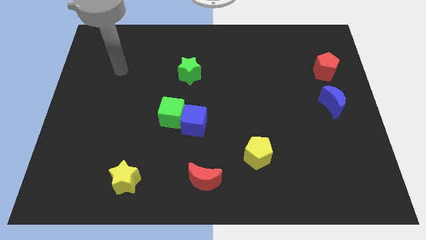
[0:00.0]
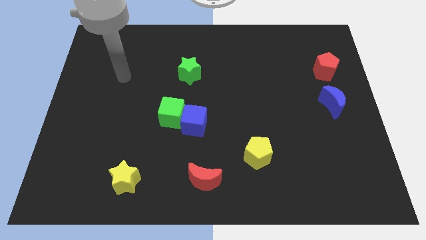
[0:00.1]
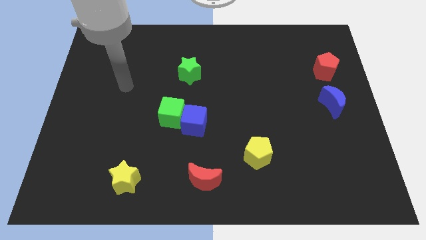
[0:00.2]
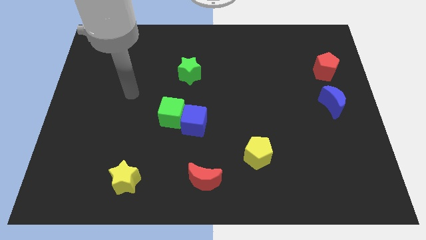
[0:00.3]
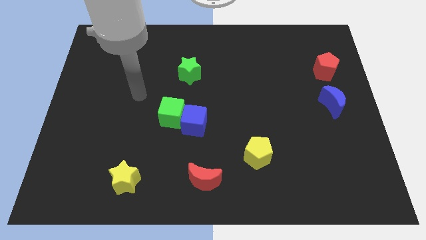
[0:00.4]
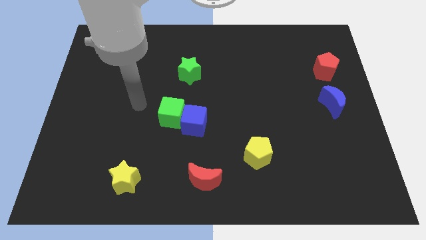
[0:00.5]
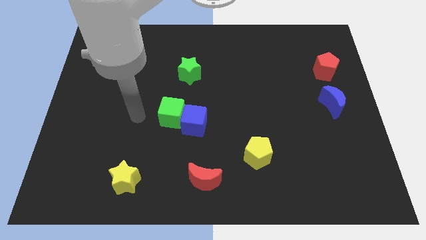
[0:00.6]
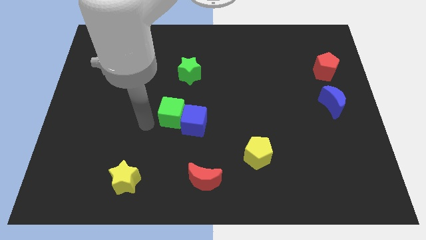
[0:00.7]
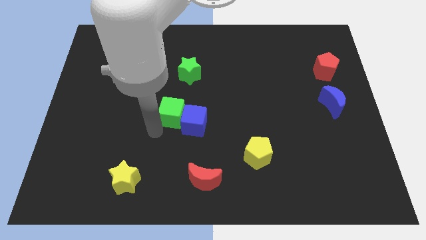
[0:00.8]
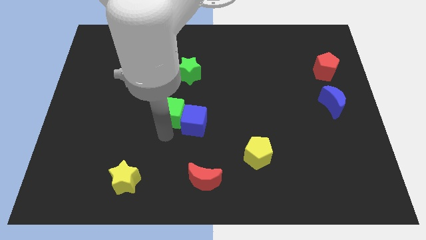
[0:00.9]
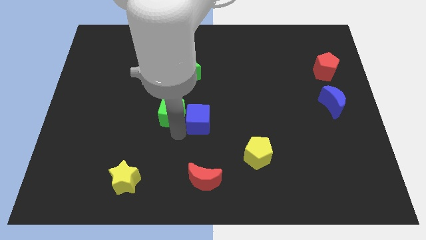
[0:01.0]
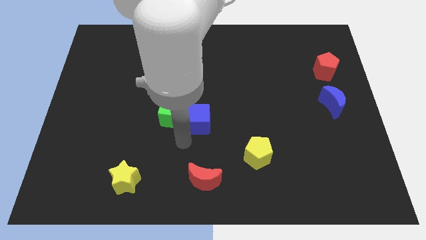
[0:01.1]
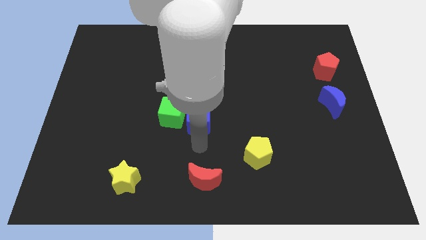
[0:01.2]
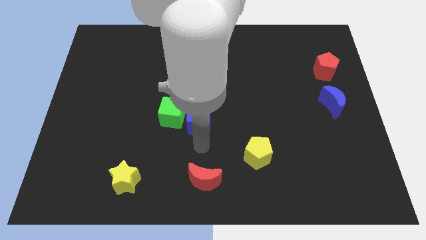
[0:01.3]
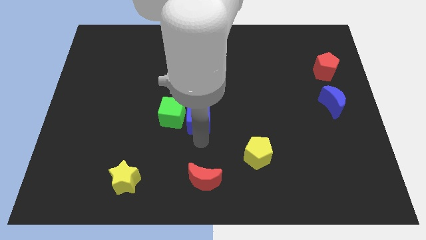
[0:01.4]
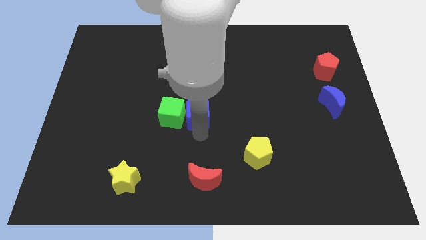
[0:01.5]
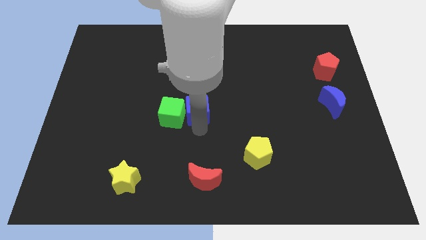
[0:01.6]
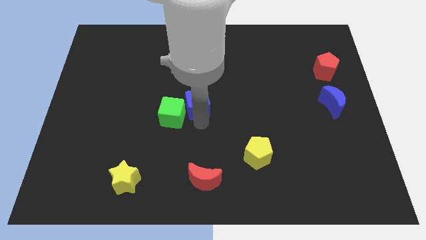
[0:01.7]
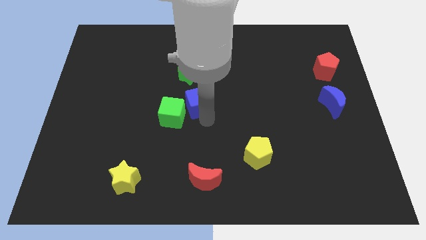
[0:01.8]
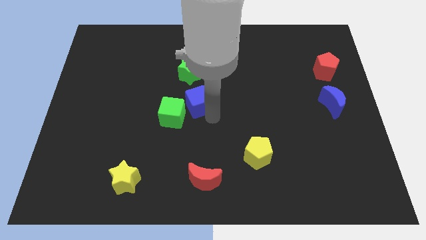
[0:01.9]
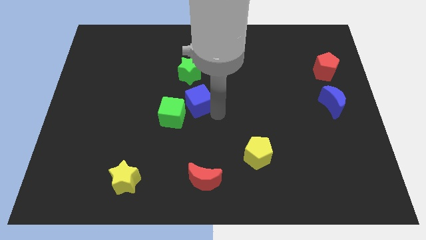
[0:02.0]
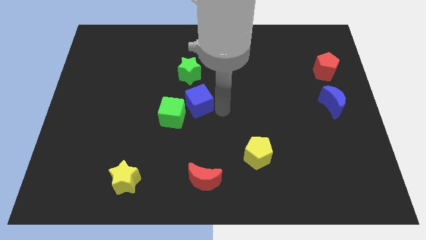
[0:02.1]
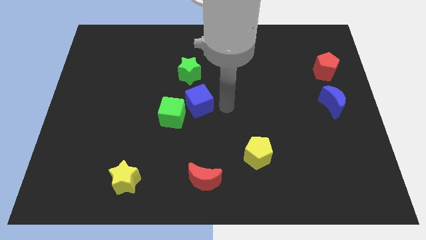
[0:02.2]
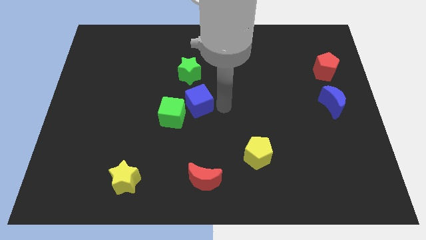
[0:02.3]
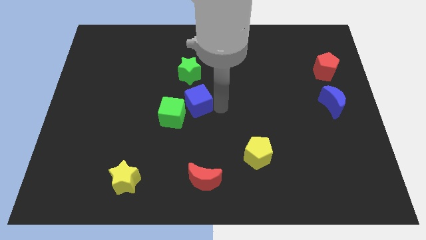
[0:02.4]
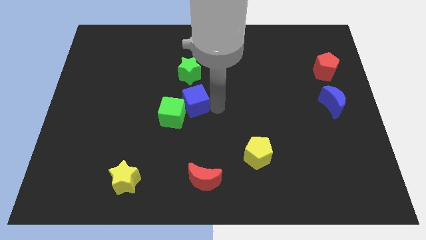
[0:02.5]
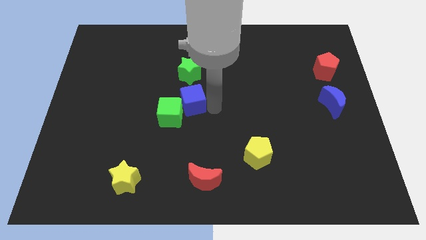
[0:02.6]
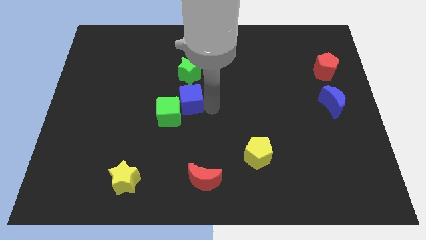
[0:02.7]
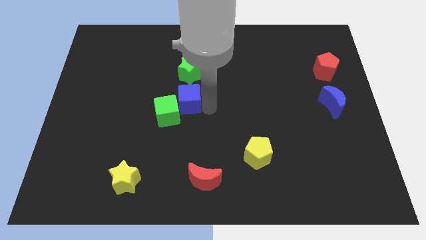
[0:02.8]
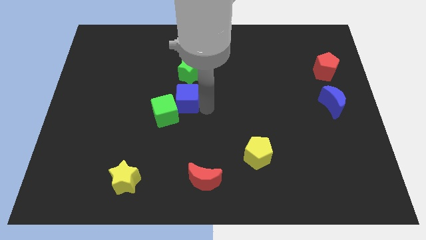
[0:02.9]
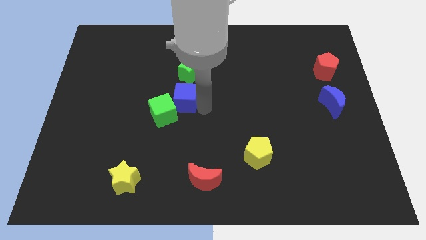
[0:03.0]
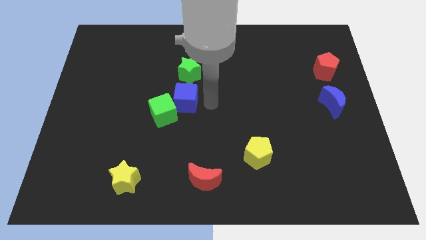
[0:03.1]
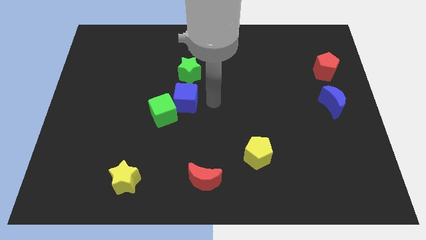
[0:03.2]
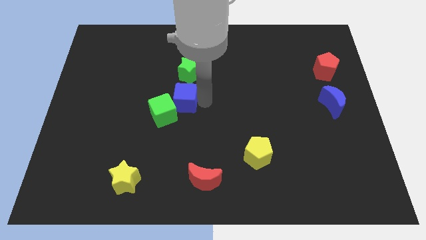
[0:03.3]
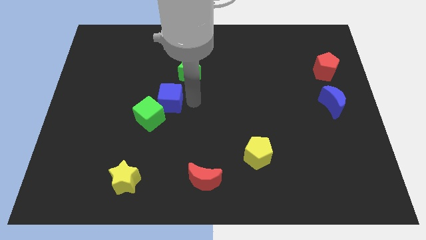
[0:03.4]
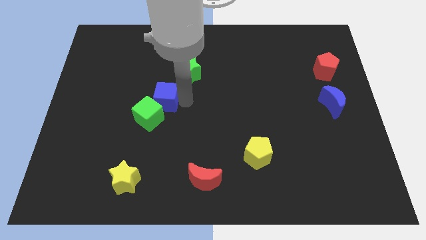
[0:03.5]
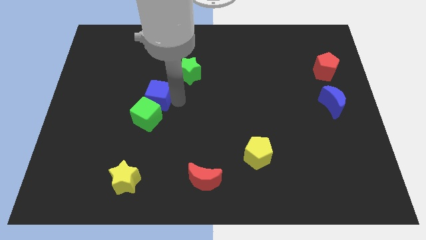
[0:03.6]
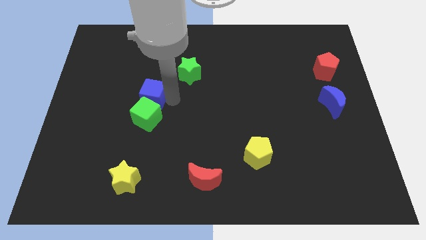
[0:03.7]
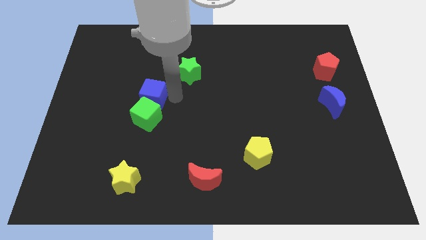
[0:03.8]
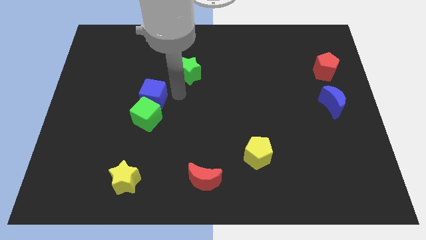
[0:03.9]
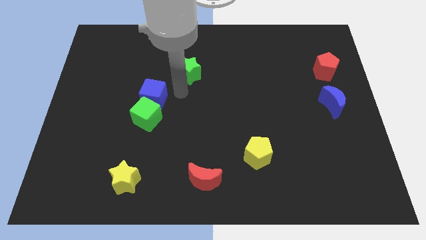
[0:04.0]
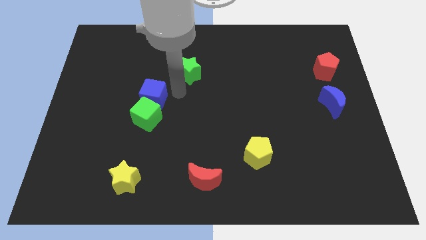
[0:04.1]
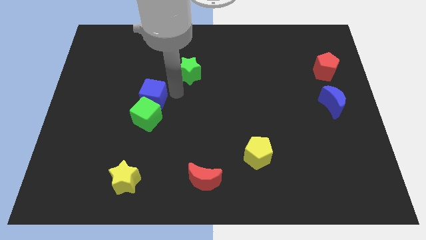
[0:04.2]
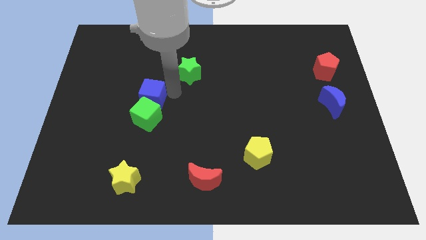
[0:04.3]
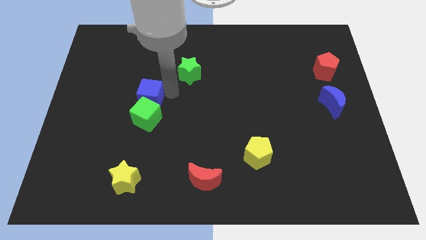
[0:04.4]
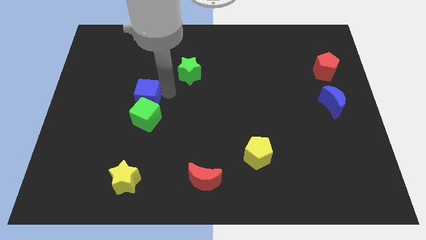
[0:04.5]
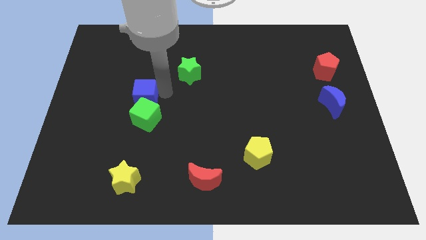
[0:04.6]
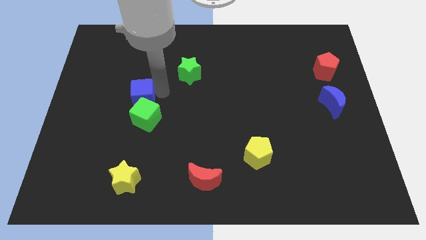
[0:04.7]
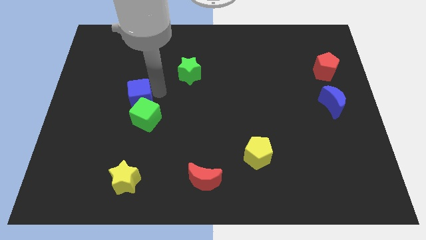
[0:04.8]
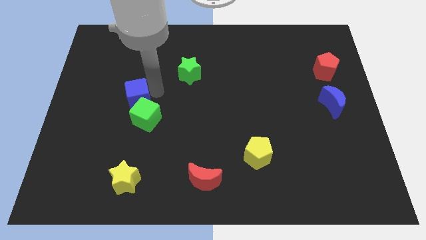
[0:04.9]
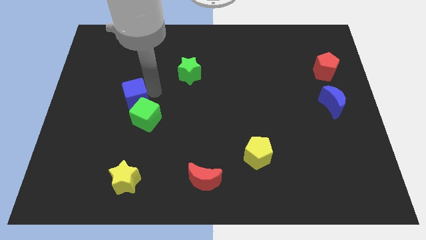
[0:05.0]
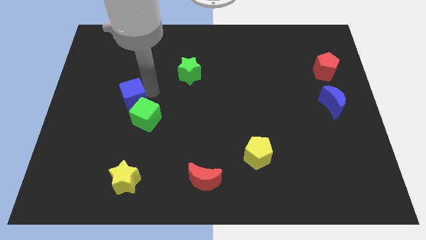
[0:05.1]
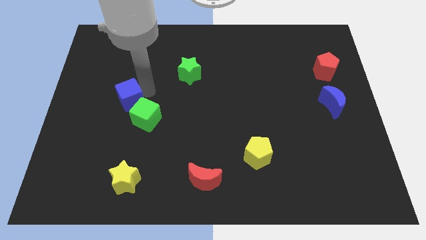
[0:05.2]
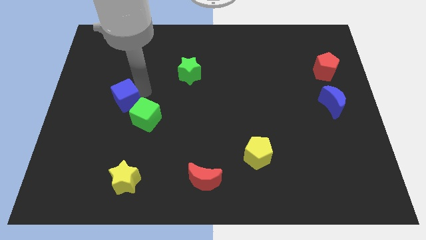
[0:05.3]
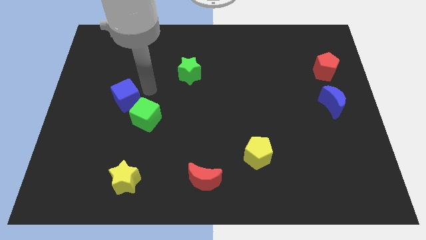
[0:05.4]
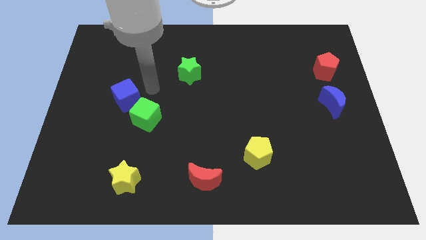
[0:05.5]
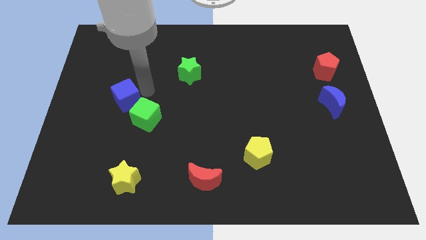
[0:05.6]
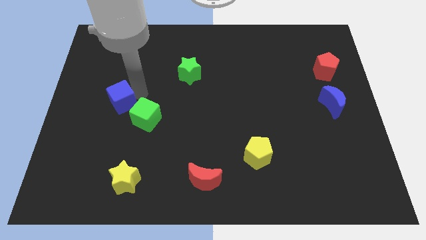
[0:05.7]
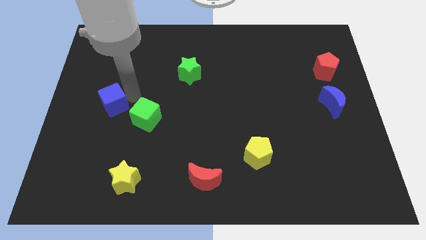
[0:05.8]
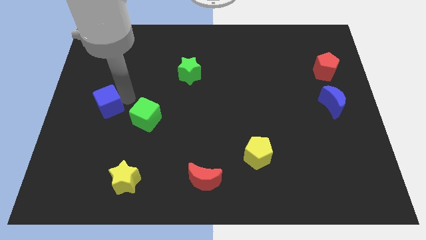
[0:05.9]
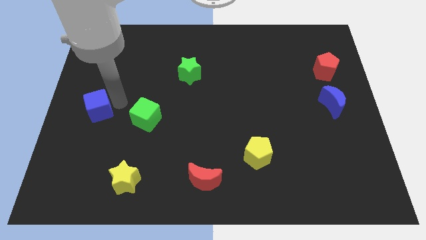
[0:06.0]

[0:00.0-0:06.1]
put the blue cube to the left side

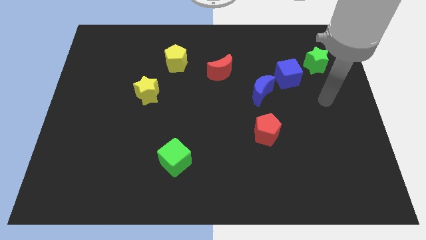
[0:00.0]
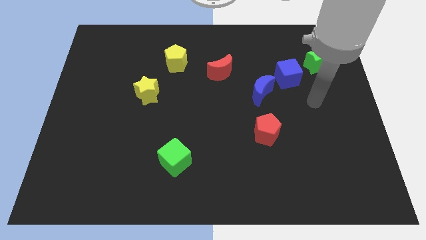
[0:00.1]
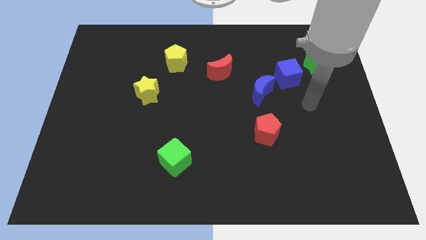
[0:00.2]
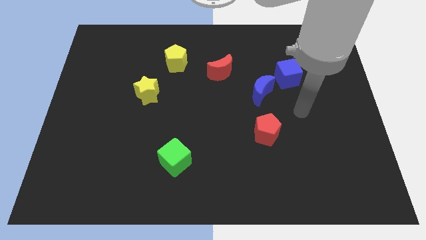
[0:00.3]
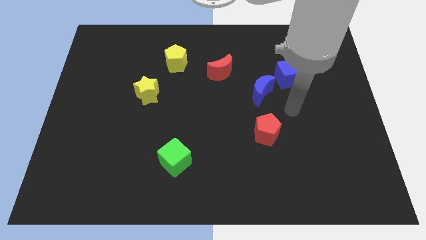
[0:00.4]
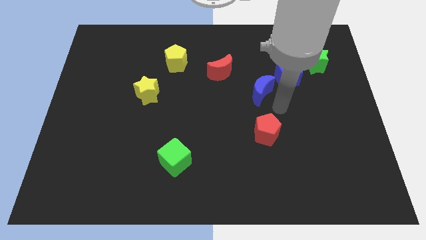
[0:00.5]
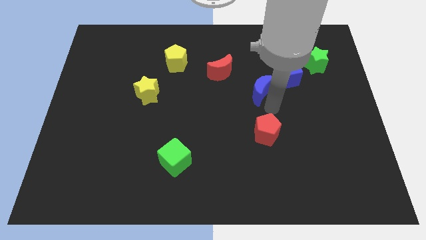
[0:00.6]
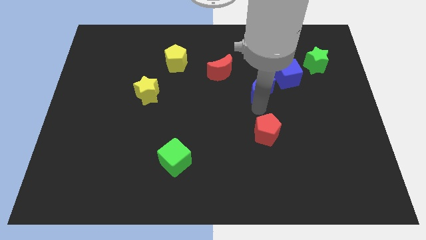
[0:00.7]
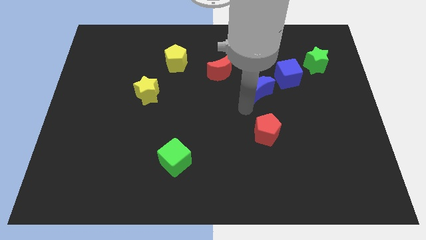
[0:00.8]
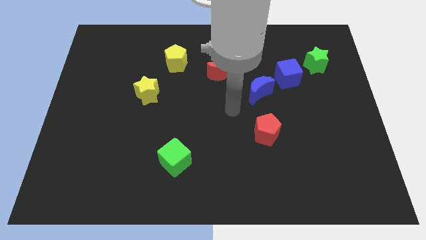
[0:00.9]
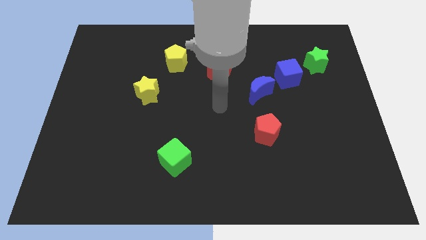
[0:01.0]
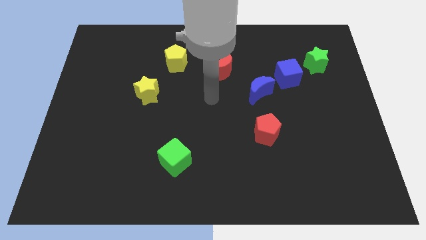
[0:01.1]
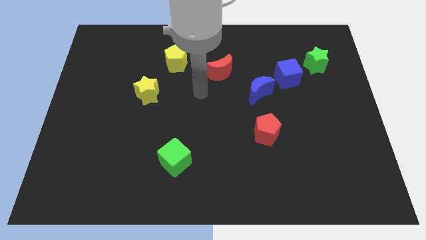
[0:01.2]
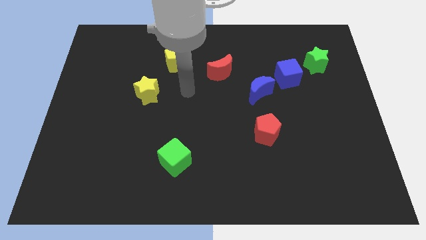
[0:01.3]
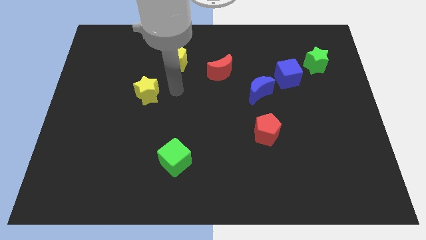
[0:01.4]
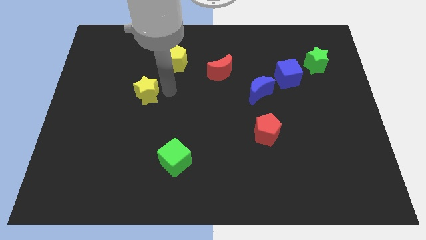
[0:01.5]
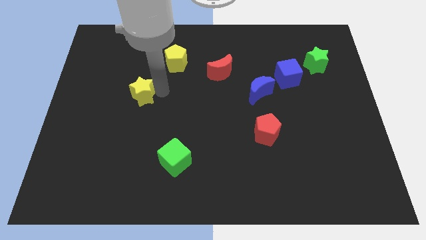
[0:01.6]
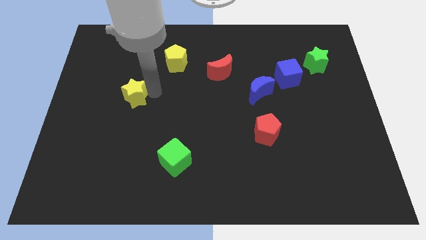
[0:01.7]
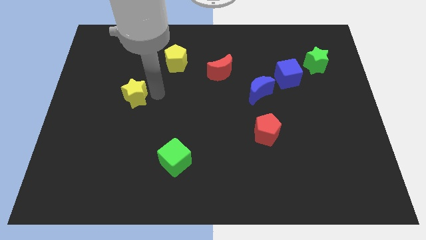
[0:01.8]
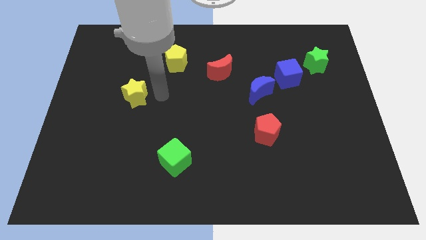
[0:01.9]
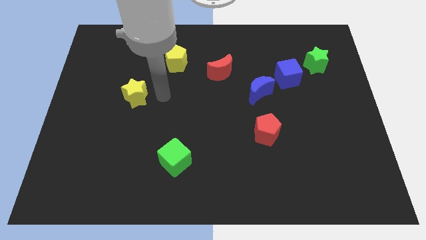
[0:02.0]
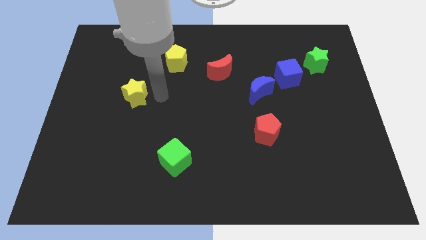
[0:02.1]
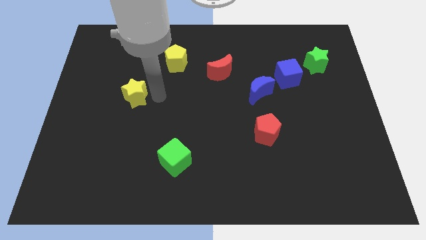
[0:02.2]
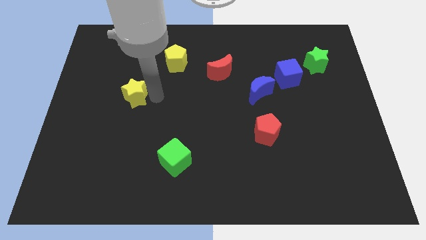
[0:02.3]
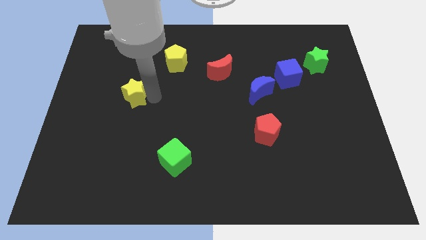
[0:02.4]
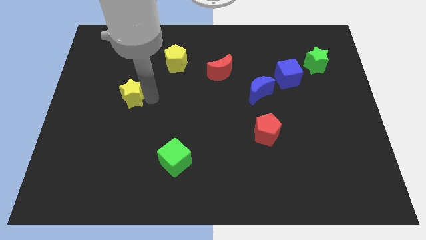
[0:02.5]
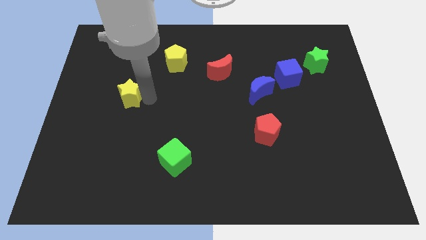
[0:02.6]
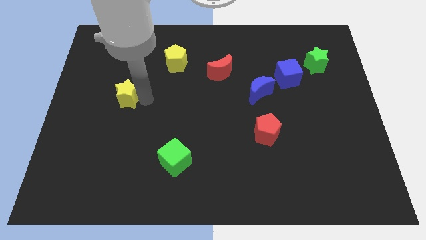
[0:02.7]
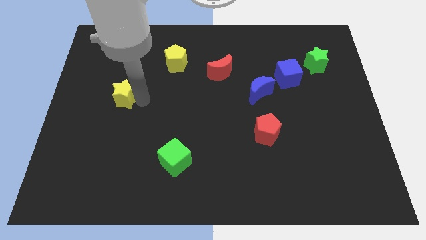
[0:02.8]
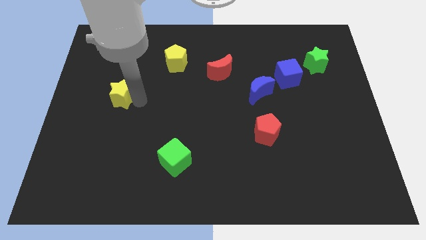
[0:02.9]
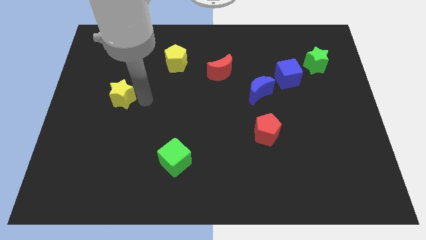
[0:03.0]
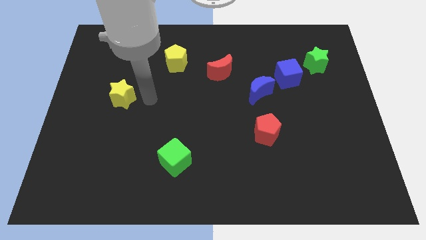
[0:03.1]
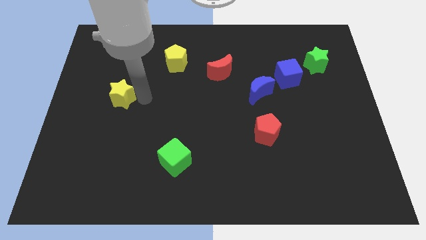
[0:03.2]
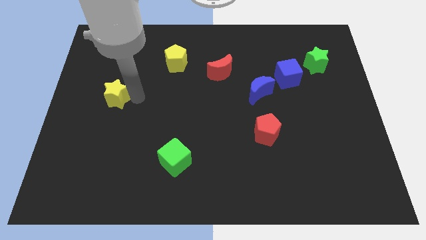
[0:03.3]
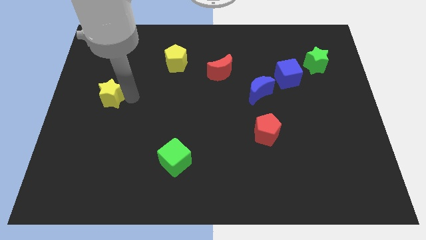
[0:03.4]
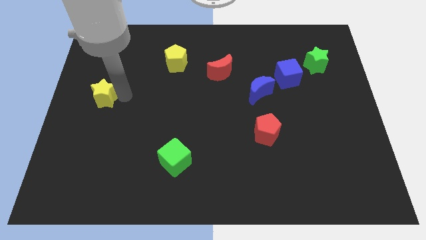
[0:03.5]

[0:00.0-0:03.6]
push the yellow star to the left side of the board
